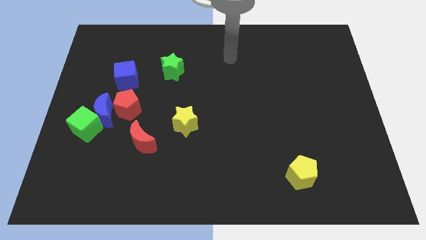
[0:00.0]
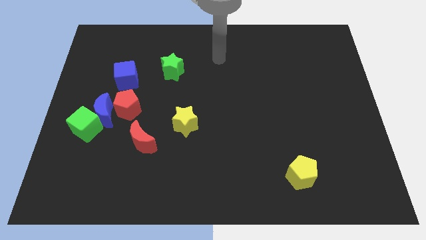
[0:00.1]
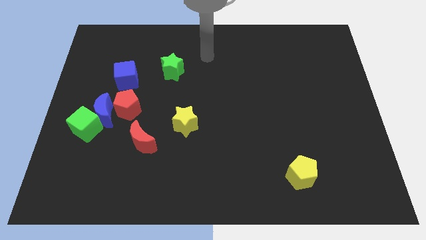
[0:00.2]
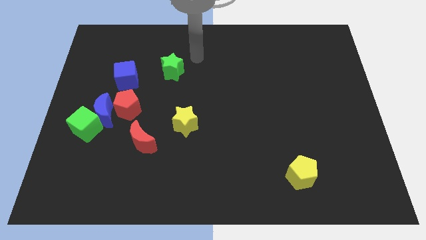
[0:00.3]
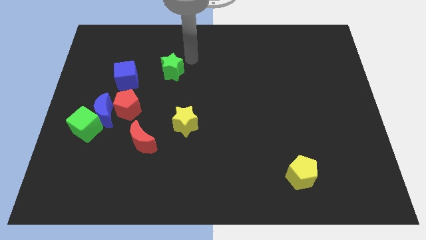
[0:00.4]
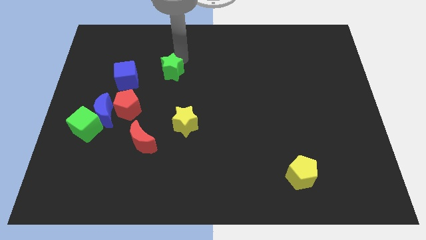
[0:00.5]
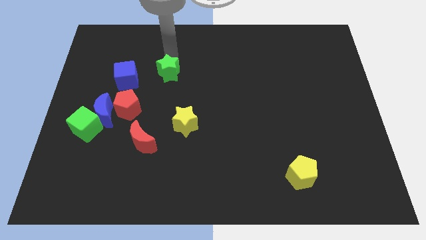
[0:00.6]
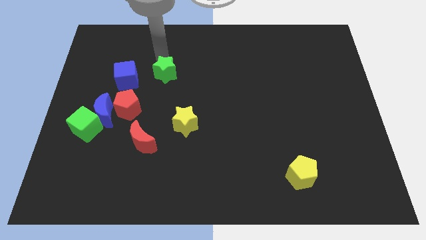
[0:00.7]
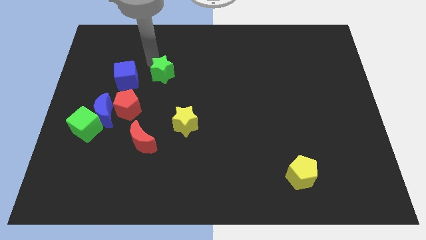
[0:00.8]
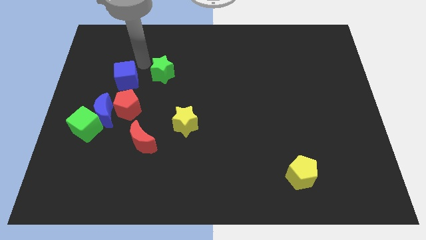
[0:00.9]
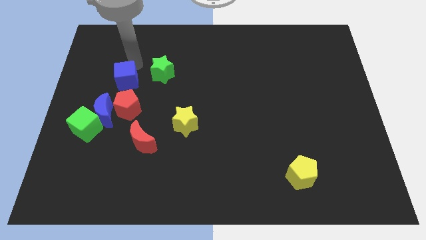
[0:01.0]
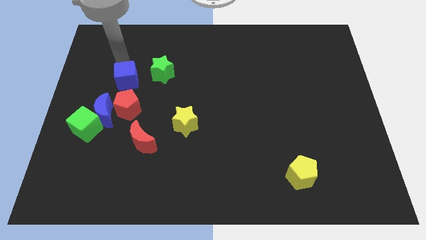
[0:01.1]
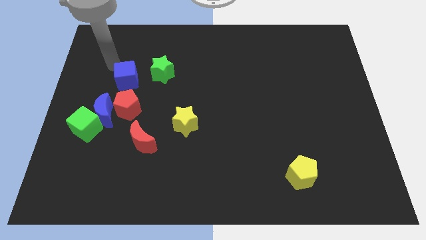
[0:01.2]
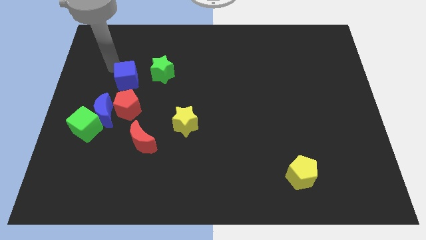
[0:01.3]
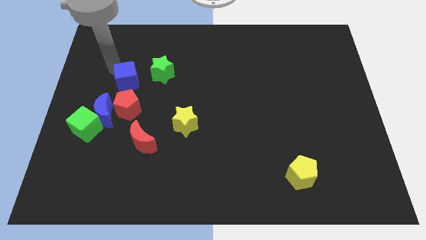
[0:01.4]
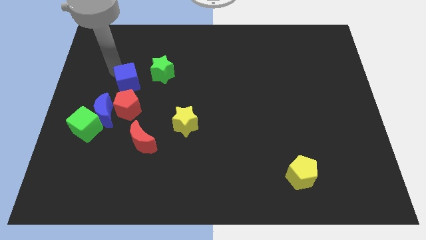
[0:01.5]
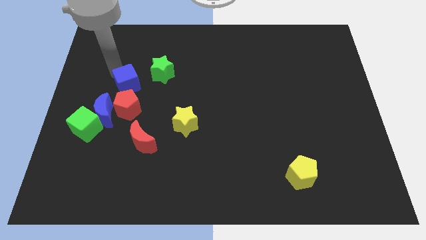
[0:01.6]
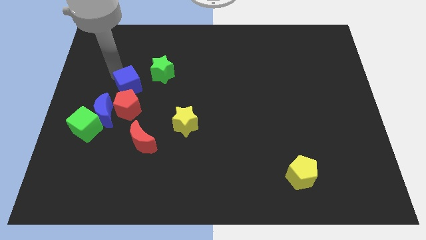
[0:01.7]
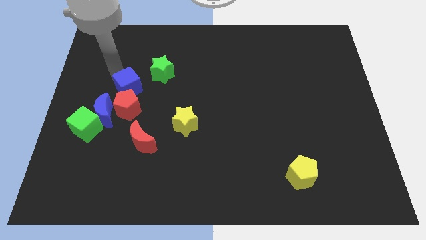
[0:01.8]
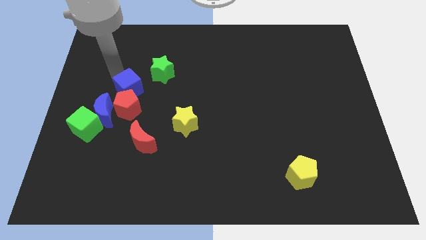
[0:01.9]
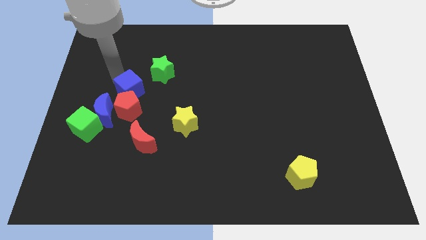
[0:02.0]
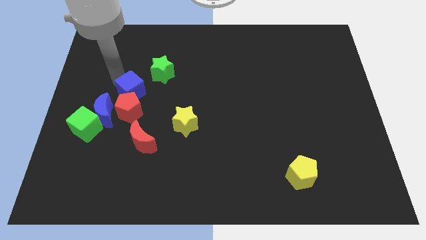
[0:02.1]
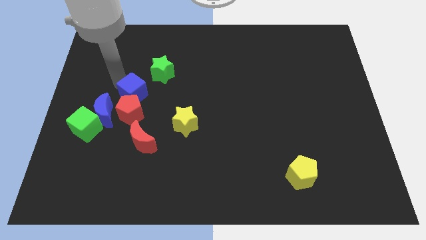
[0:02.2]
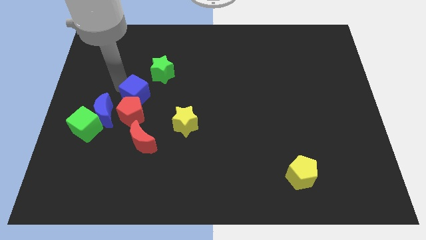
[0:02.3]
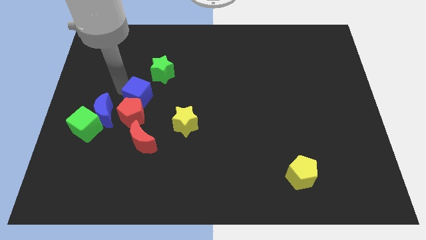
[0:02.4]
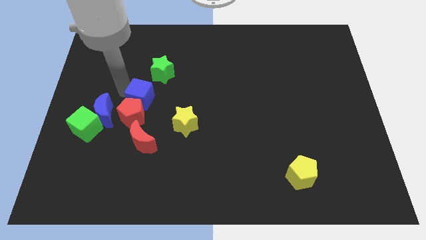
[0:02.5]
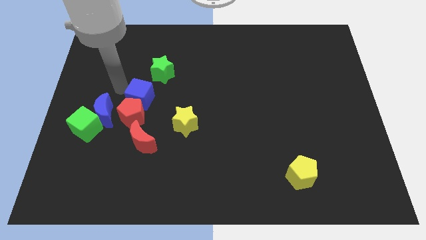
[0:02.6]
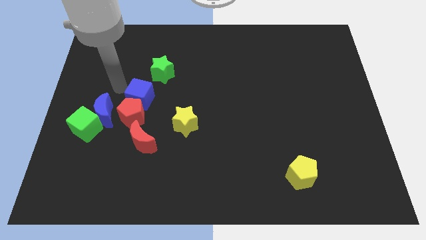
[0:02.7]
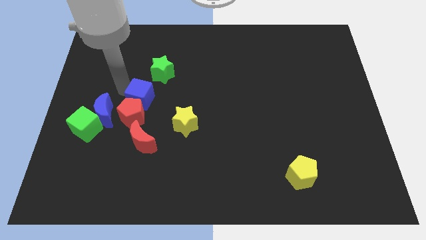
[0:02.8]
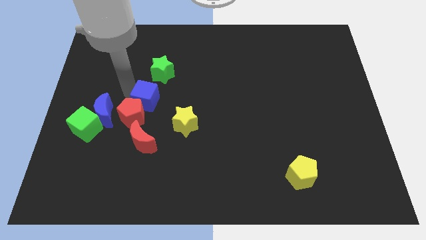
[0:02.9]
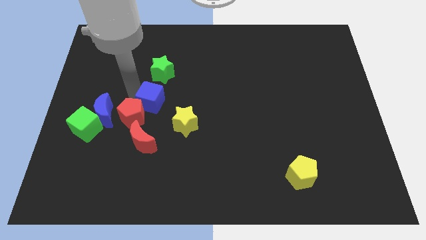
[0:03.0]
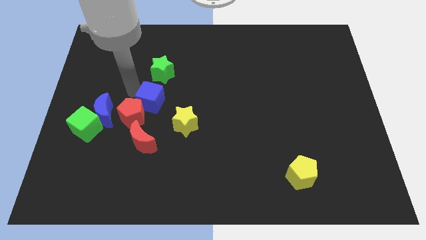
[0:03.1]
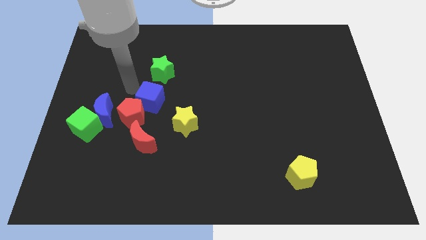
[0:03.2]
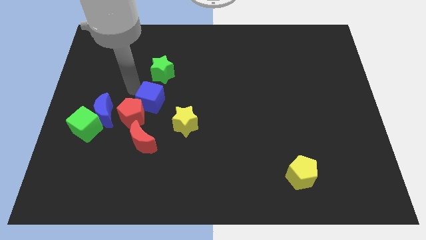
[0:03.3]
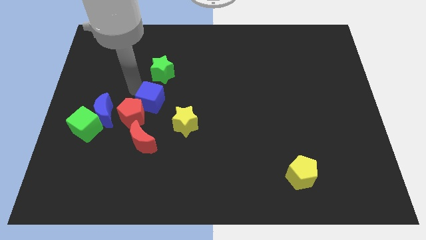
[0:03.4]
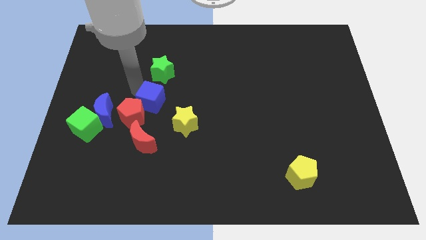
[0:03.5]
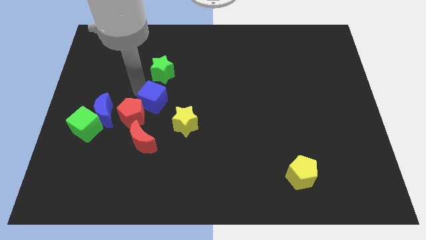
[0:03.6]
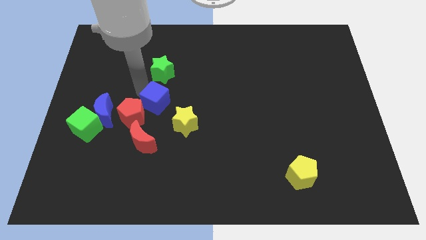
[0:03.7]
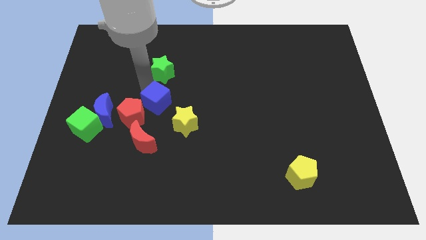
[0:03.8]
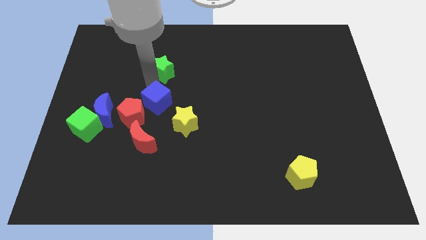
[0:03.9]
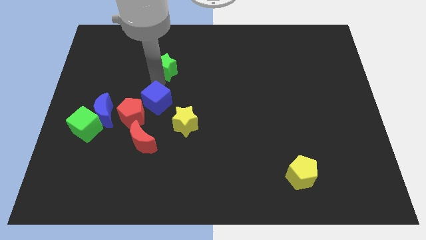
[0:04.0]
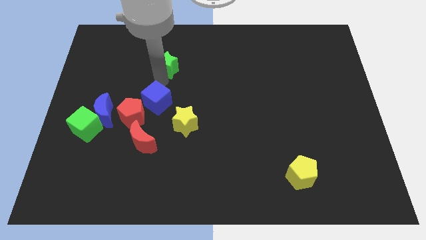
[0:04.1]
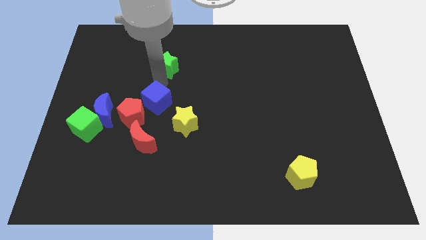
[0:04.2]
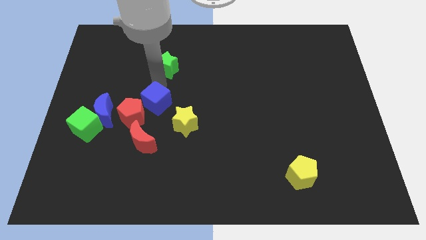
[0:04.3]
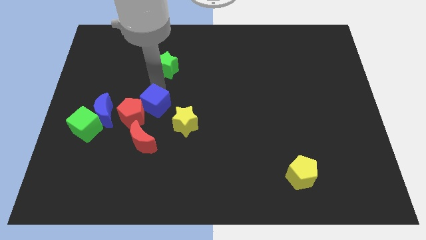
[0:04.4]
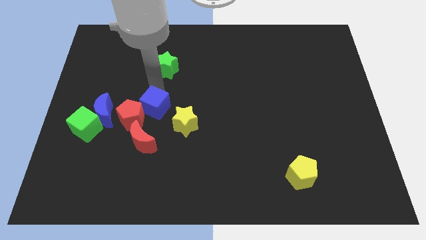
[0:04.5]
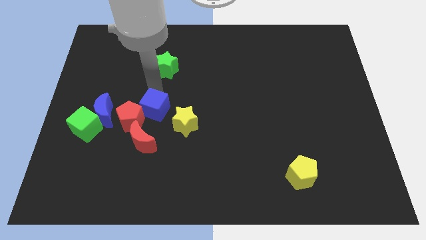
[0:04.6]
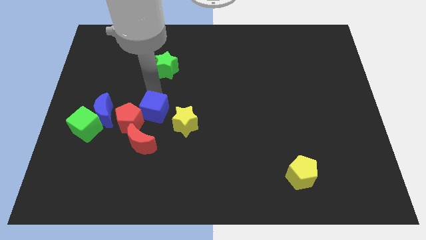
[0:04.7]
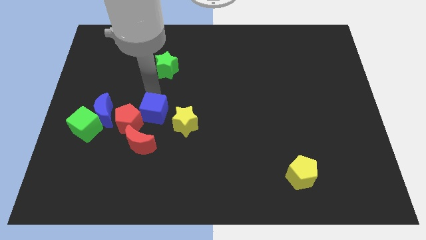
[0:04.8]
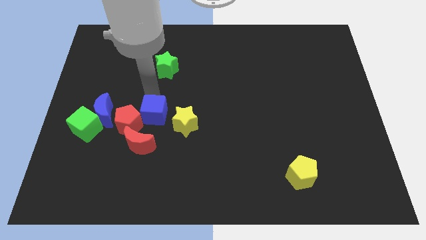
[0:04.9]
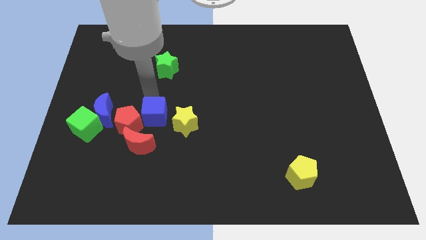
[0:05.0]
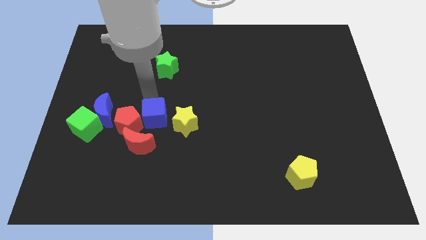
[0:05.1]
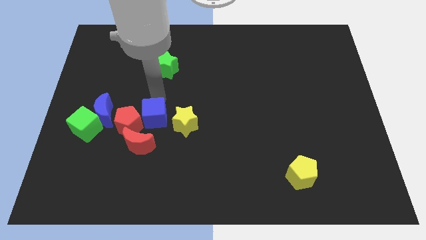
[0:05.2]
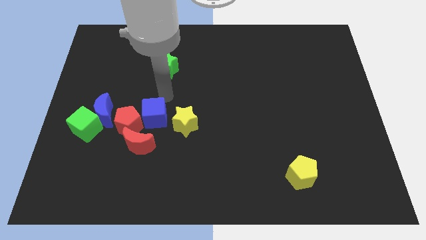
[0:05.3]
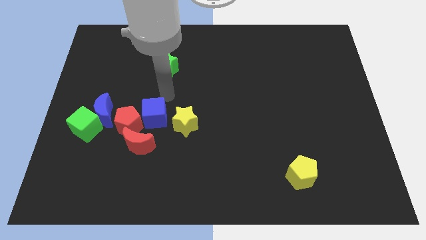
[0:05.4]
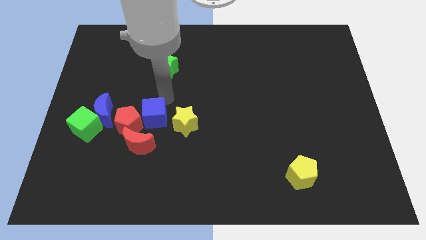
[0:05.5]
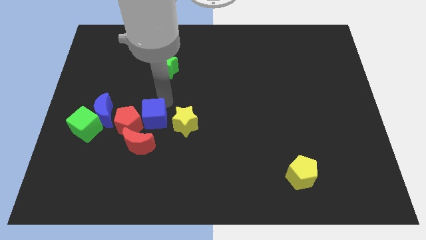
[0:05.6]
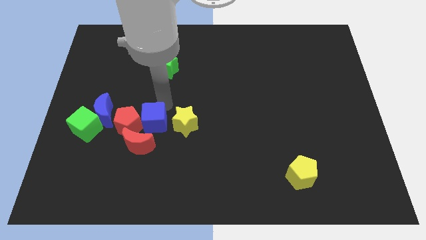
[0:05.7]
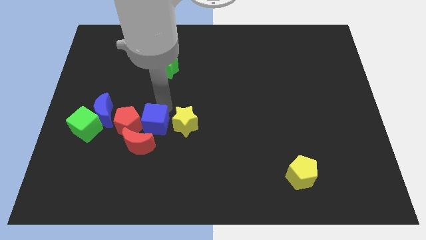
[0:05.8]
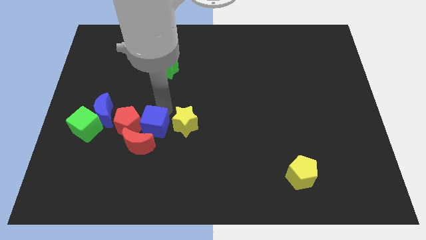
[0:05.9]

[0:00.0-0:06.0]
push the blue cube close to the red moon
